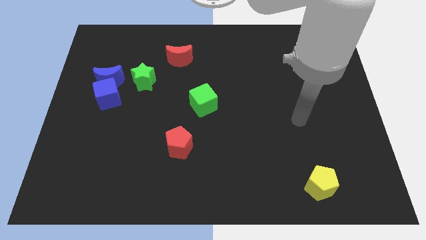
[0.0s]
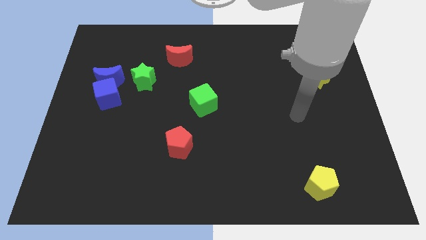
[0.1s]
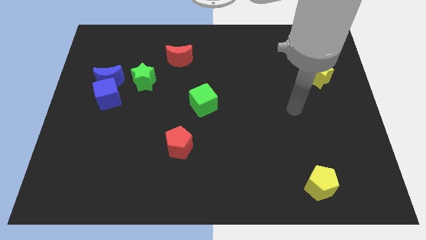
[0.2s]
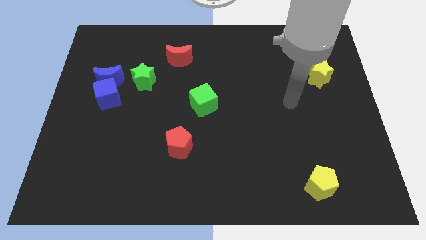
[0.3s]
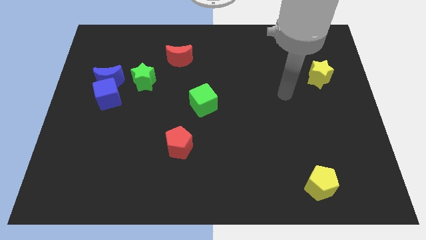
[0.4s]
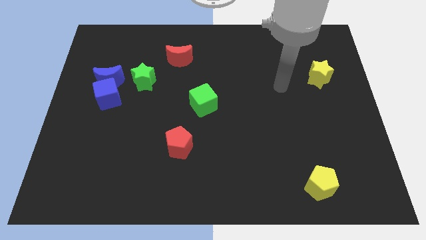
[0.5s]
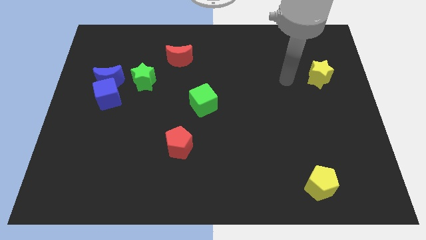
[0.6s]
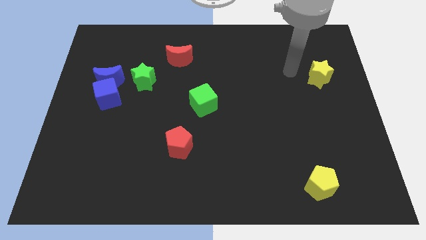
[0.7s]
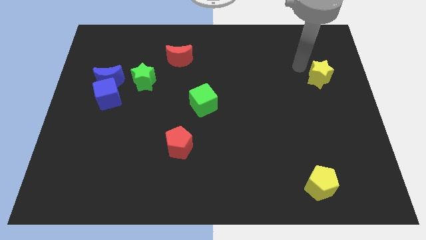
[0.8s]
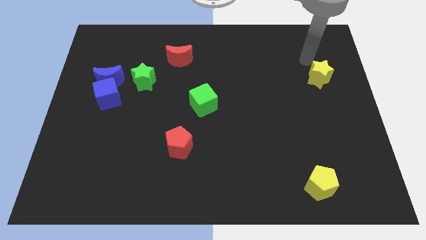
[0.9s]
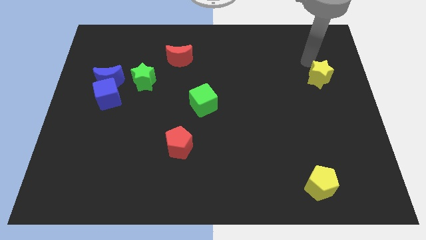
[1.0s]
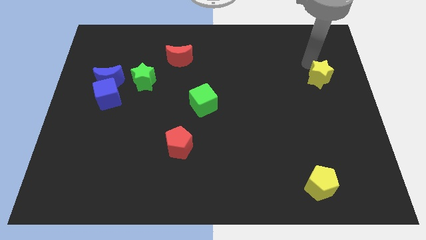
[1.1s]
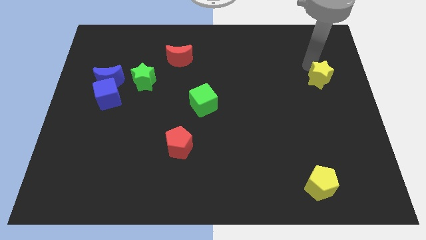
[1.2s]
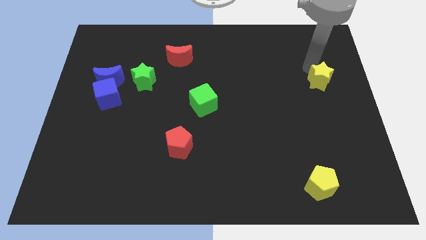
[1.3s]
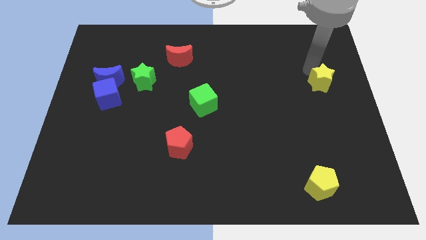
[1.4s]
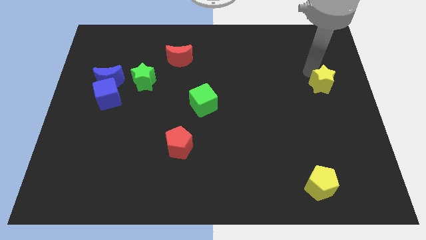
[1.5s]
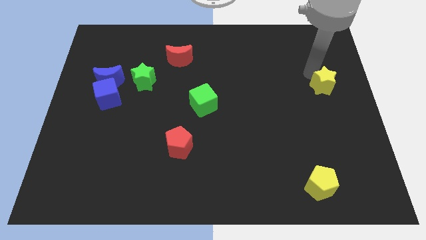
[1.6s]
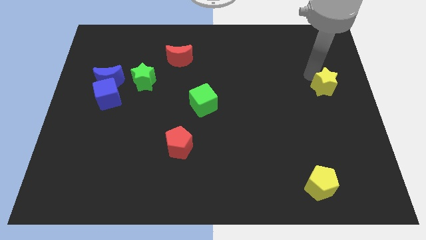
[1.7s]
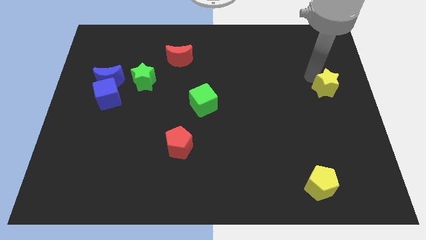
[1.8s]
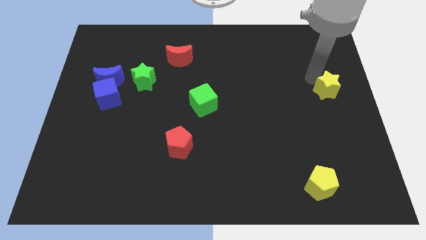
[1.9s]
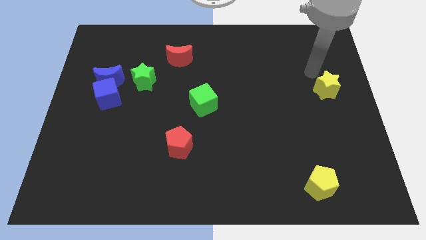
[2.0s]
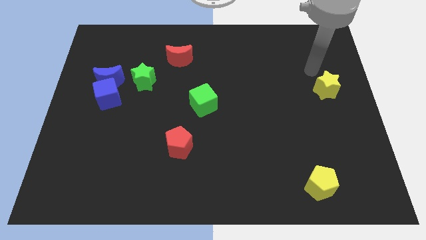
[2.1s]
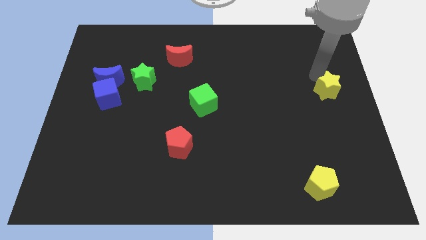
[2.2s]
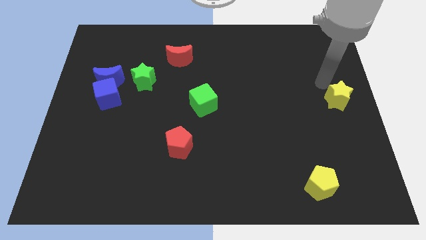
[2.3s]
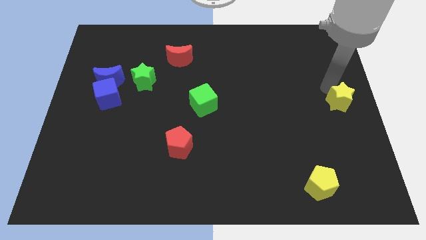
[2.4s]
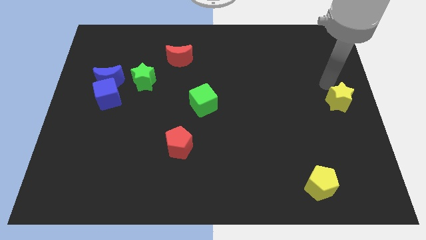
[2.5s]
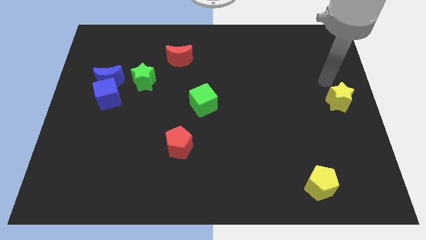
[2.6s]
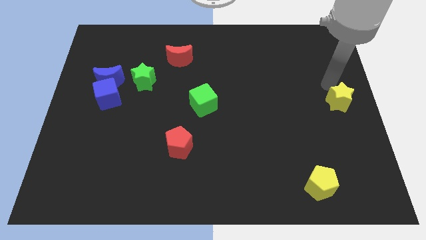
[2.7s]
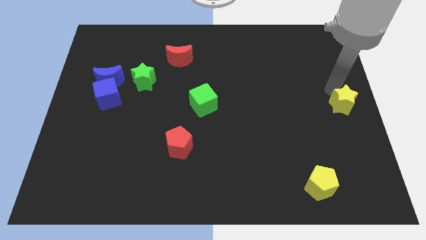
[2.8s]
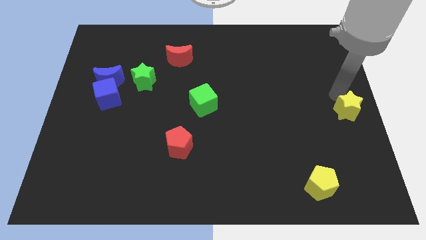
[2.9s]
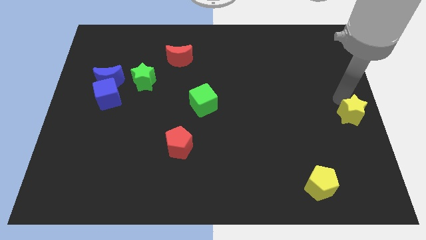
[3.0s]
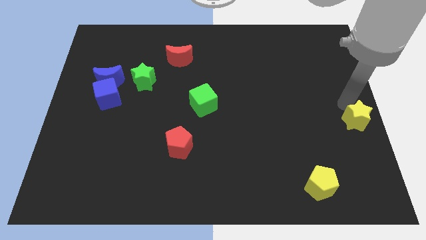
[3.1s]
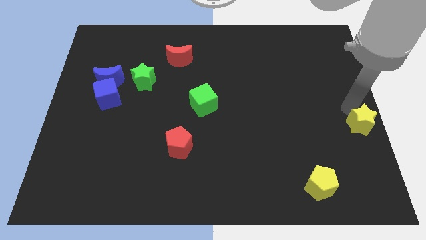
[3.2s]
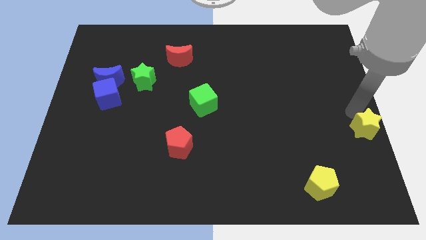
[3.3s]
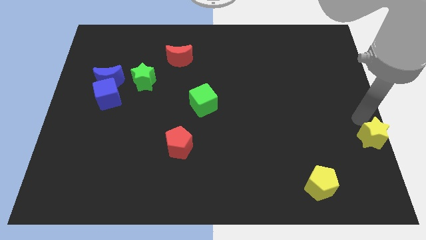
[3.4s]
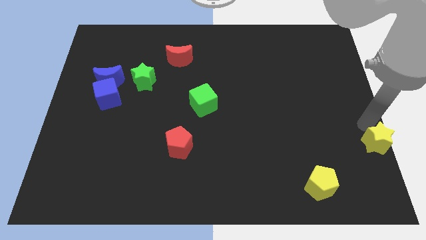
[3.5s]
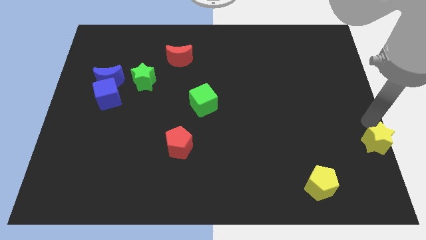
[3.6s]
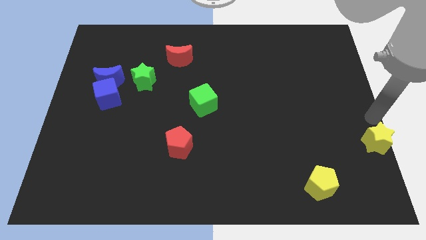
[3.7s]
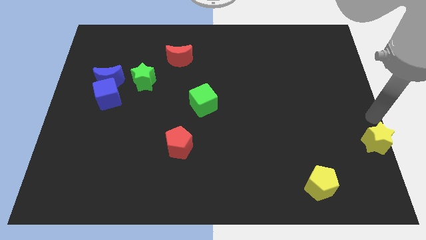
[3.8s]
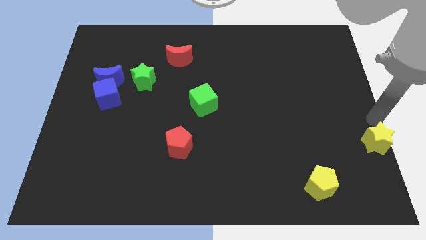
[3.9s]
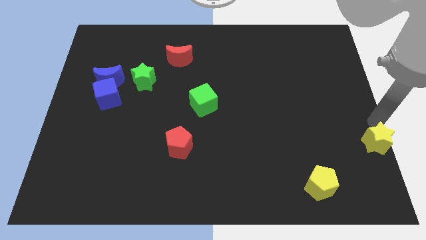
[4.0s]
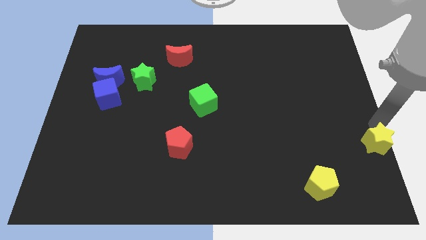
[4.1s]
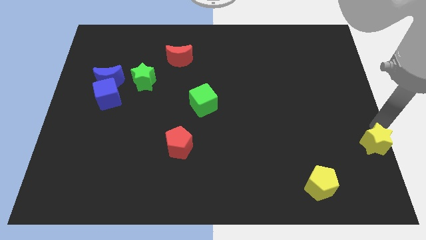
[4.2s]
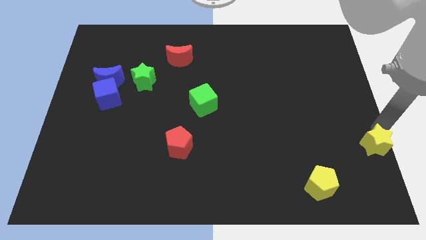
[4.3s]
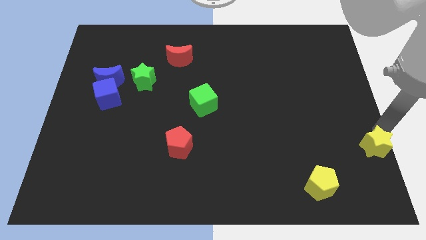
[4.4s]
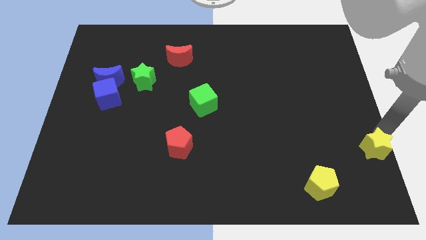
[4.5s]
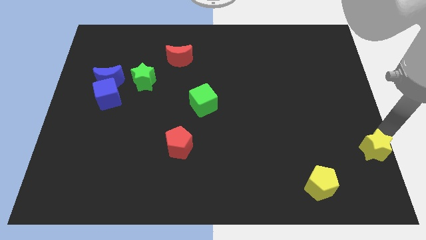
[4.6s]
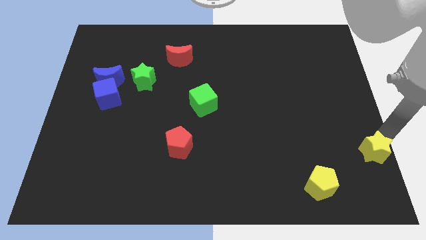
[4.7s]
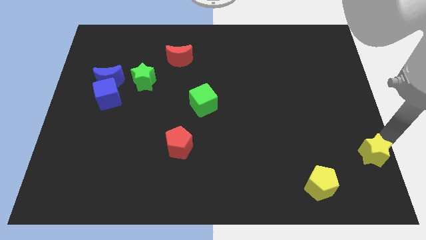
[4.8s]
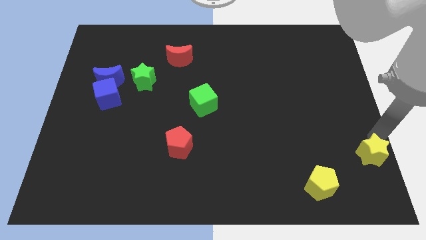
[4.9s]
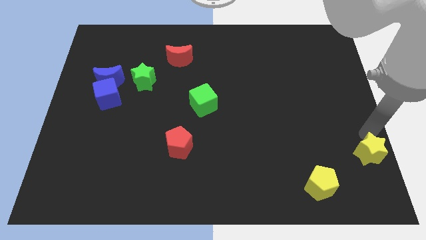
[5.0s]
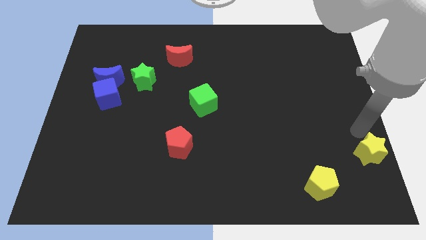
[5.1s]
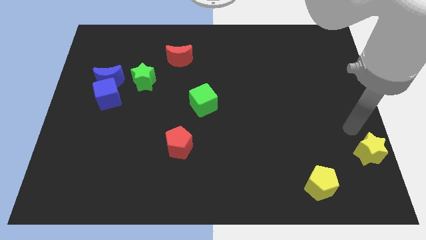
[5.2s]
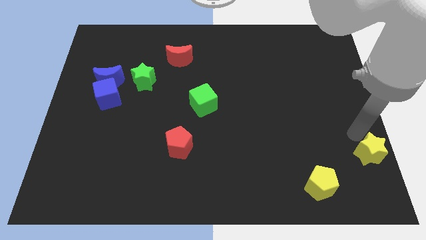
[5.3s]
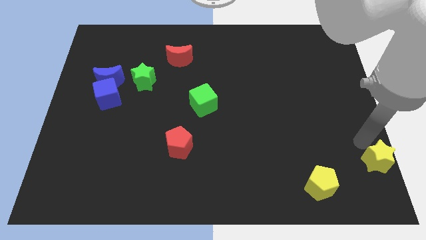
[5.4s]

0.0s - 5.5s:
move the yellow star to the bottom right

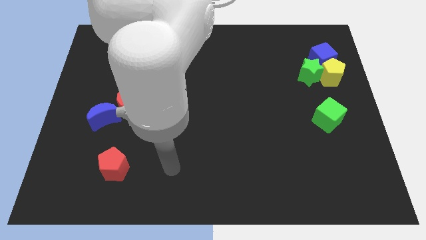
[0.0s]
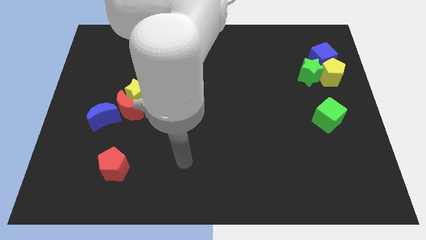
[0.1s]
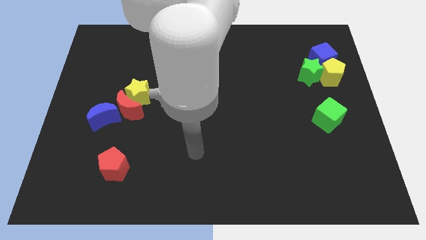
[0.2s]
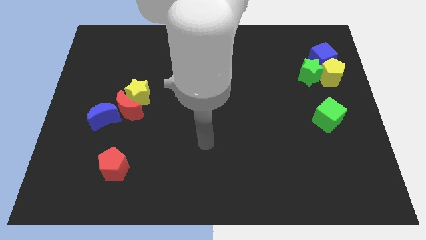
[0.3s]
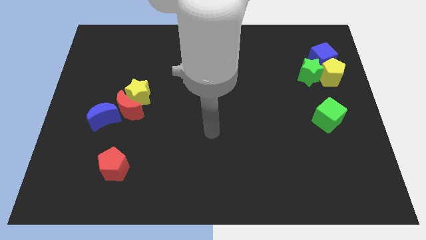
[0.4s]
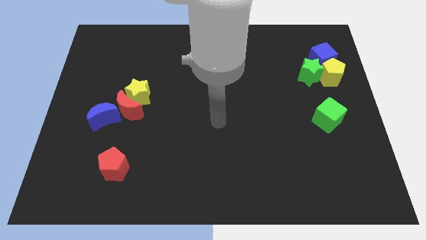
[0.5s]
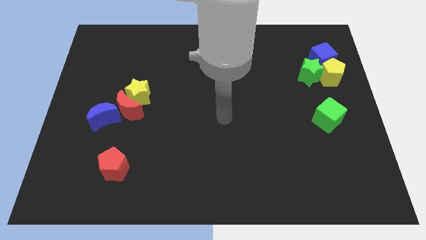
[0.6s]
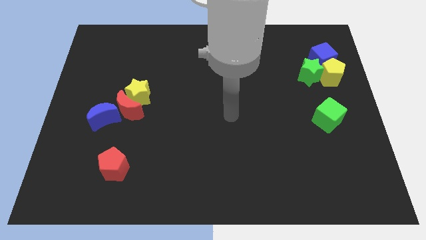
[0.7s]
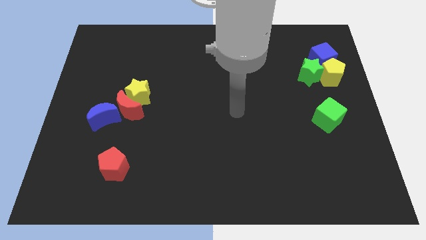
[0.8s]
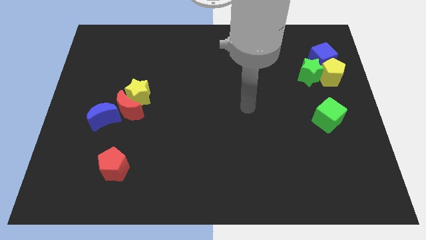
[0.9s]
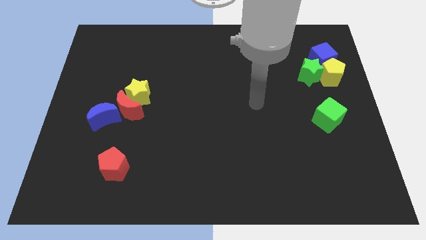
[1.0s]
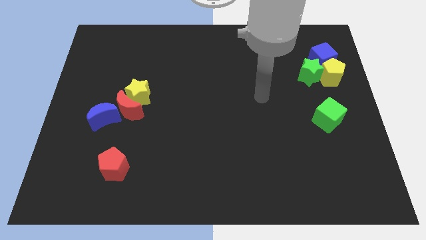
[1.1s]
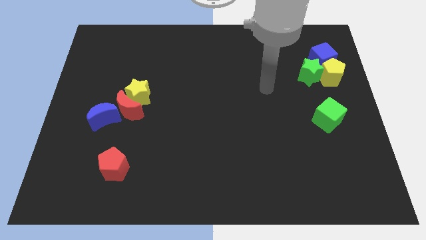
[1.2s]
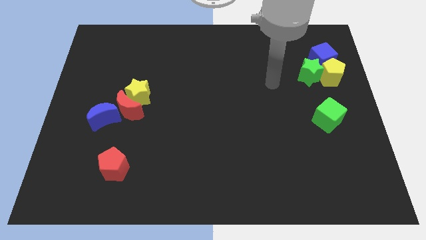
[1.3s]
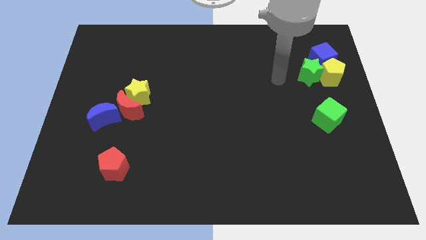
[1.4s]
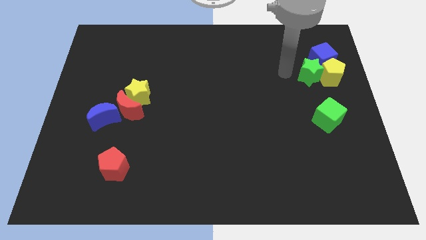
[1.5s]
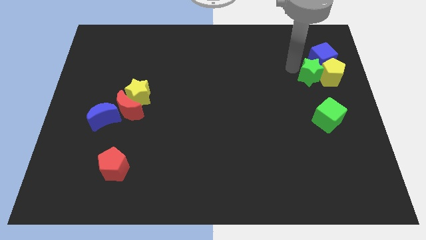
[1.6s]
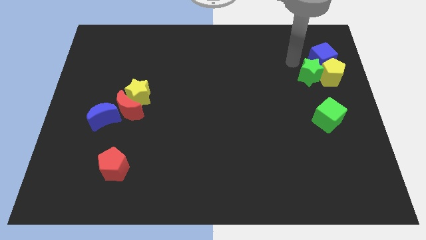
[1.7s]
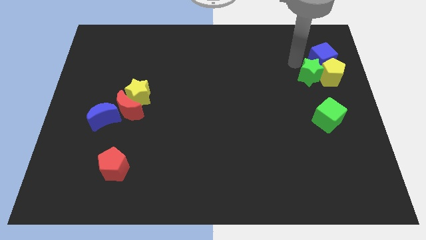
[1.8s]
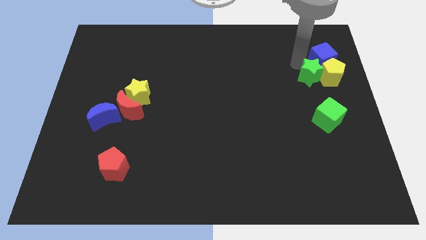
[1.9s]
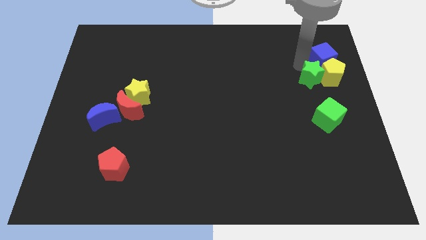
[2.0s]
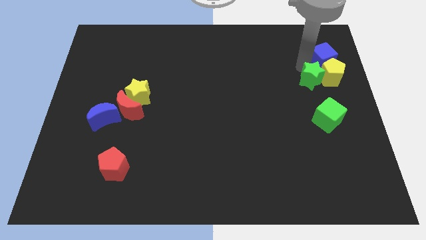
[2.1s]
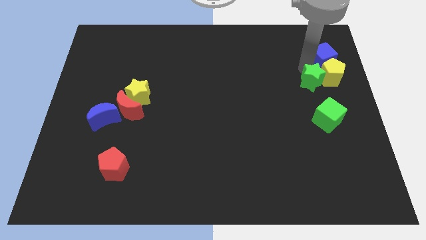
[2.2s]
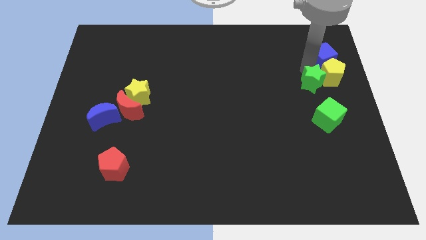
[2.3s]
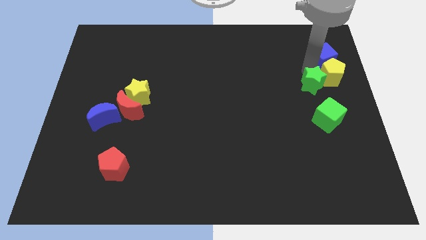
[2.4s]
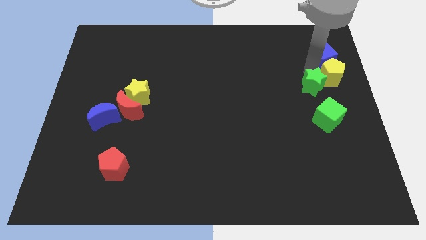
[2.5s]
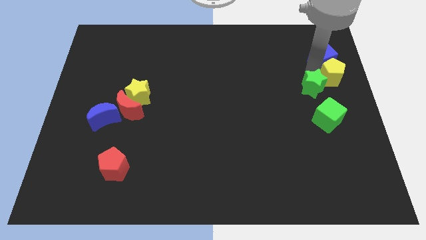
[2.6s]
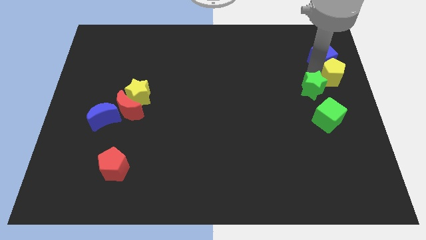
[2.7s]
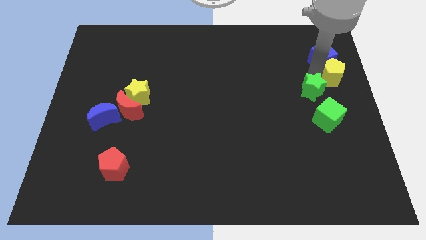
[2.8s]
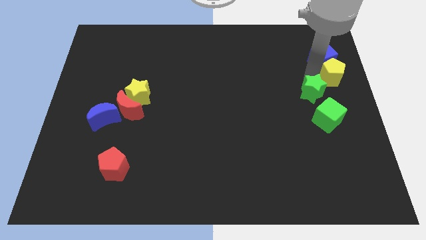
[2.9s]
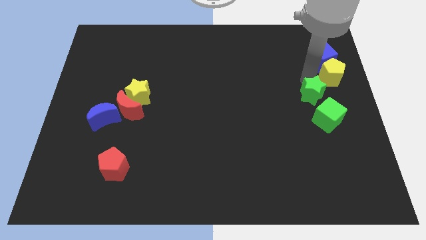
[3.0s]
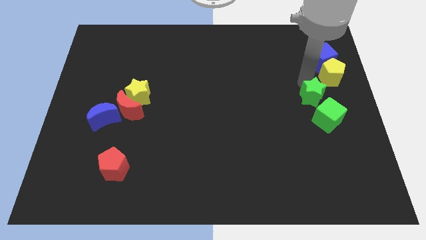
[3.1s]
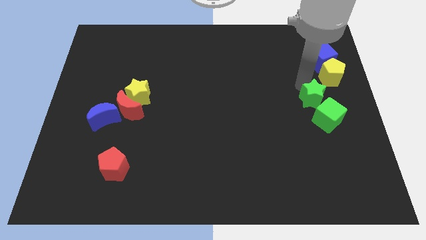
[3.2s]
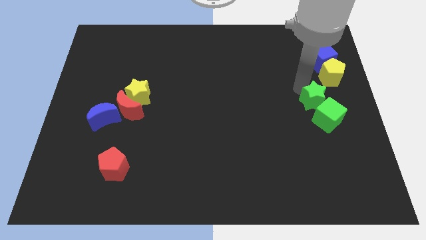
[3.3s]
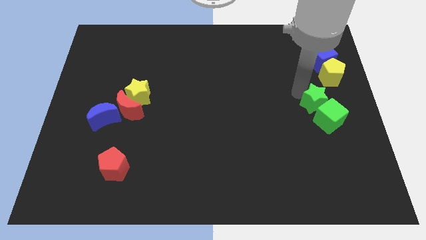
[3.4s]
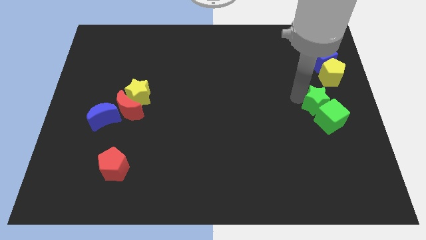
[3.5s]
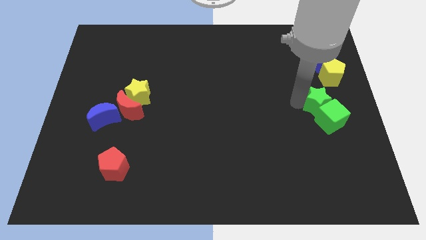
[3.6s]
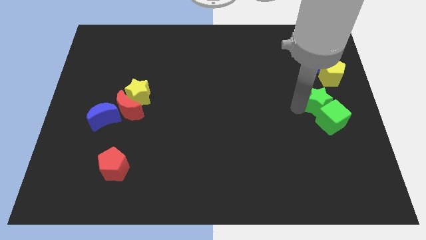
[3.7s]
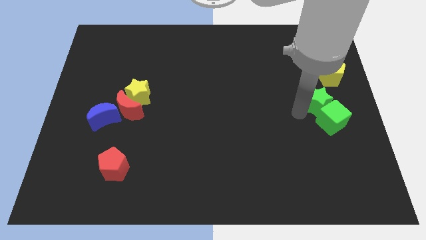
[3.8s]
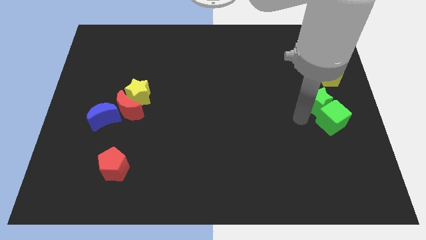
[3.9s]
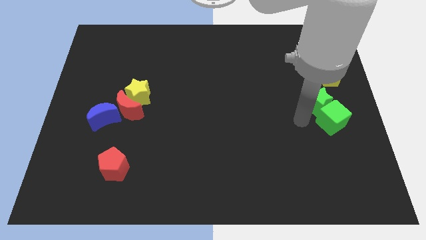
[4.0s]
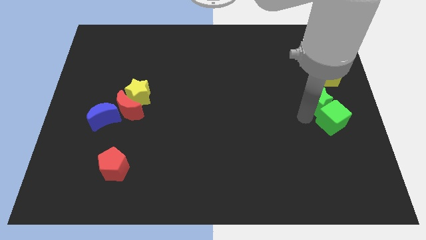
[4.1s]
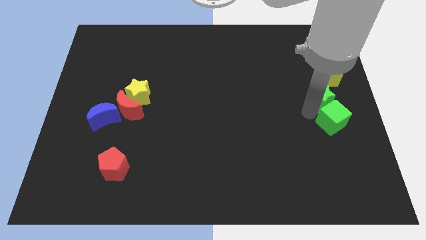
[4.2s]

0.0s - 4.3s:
slide the green star to the right side of the board
